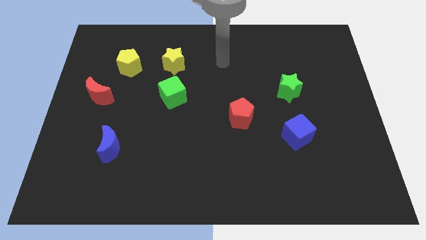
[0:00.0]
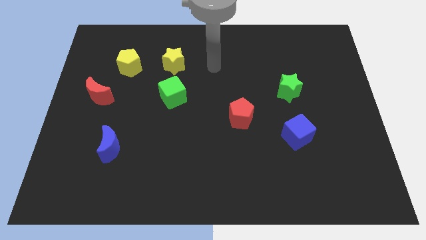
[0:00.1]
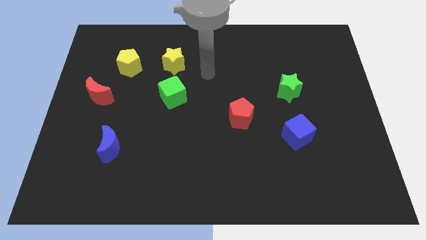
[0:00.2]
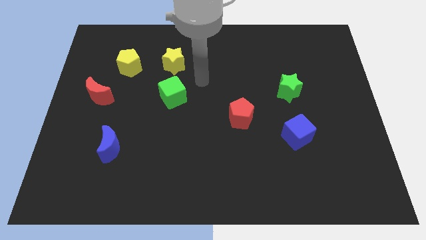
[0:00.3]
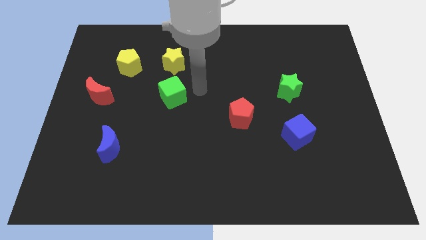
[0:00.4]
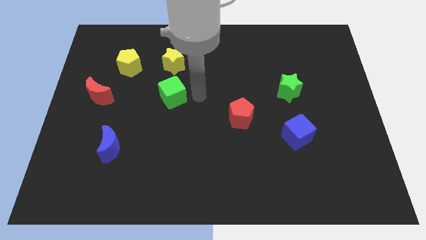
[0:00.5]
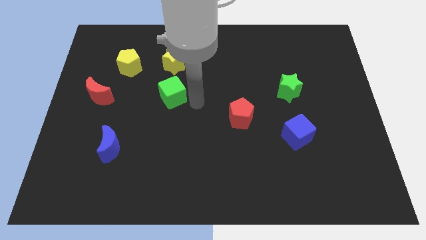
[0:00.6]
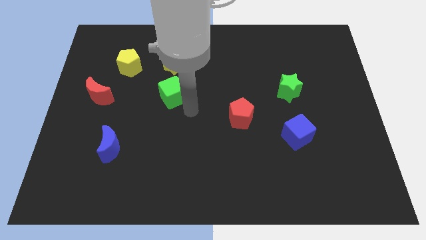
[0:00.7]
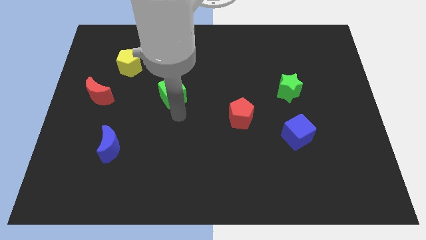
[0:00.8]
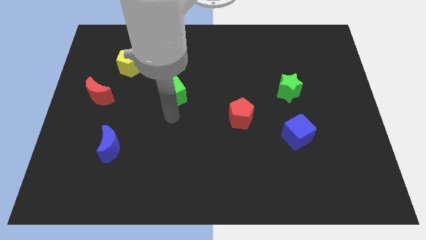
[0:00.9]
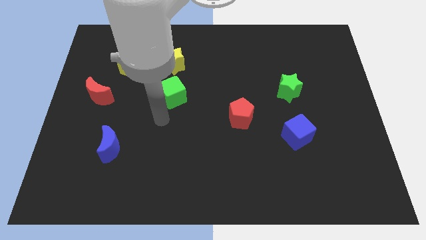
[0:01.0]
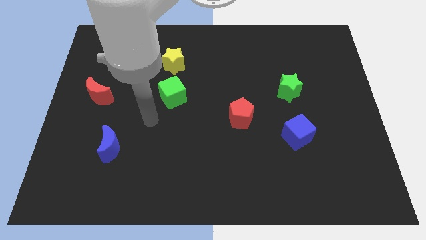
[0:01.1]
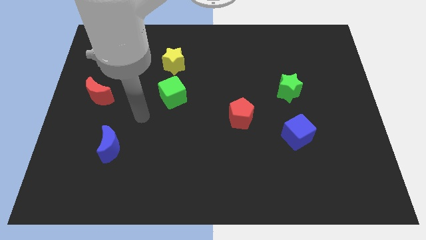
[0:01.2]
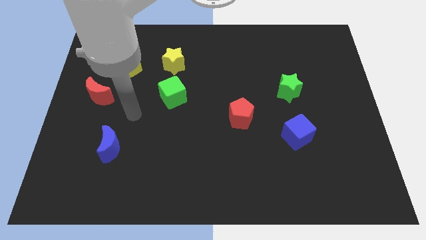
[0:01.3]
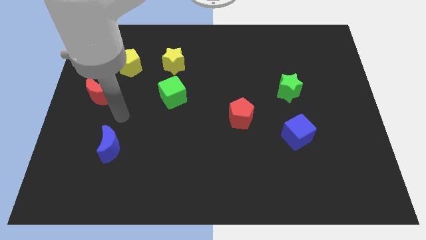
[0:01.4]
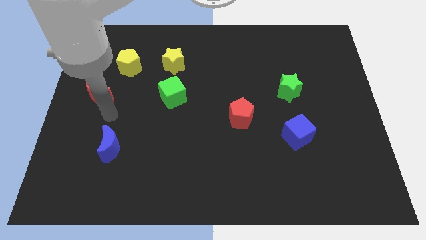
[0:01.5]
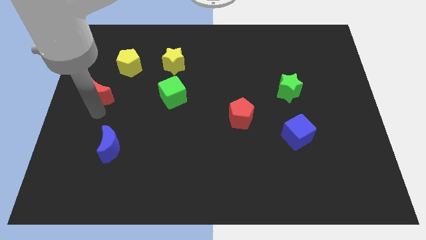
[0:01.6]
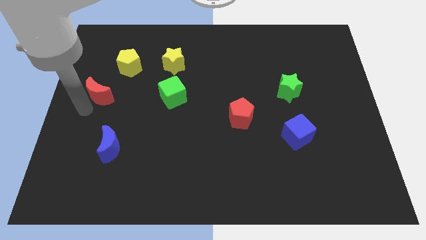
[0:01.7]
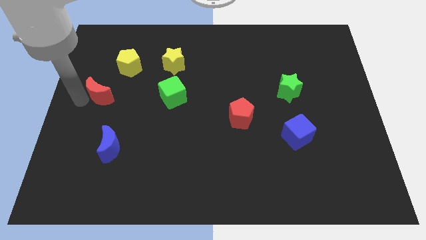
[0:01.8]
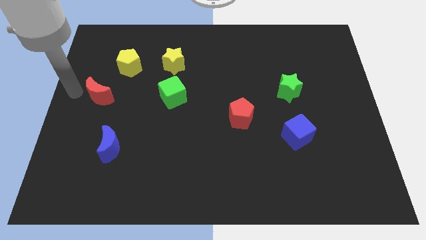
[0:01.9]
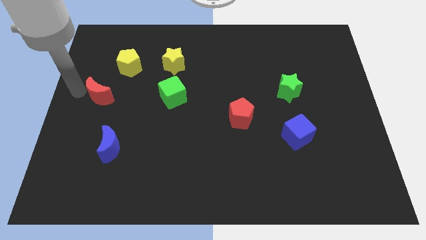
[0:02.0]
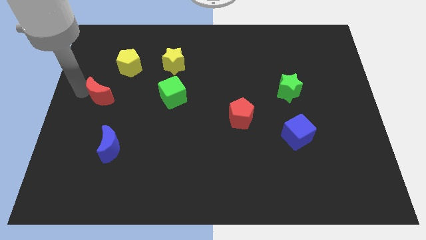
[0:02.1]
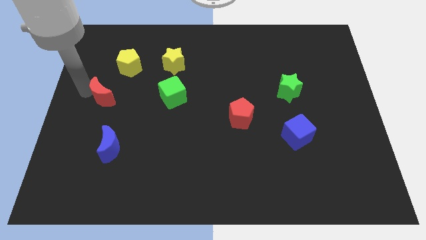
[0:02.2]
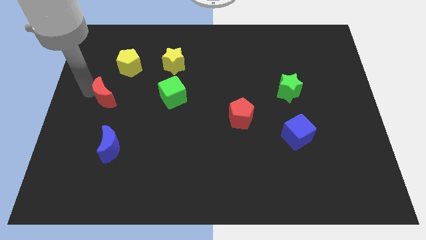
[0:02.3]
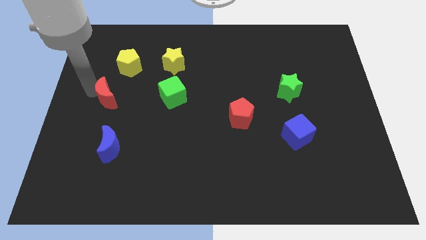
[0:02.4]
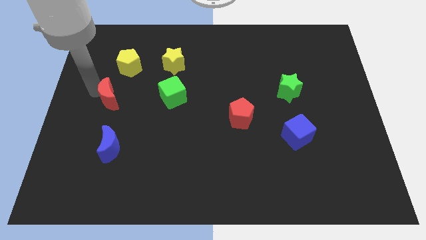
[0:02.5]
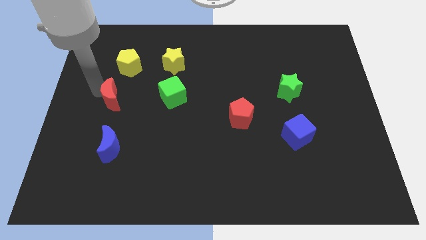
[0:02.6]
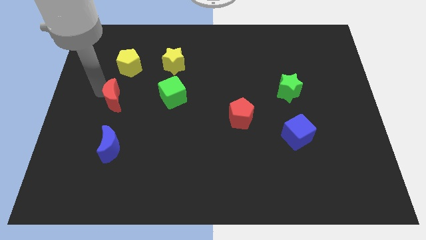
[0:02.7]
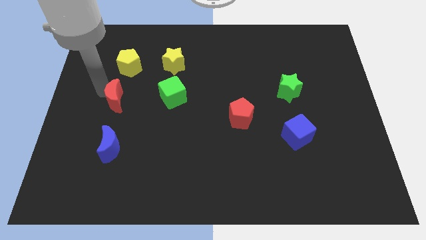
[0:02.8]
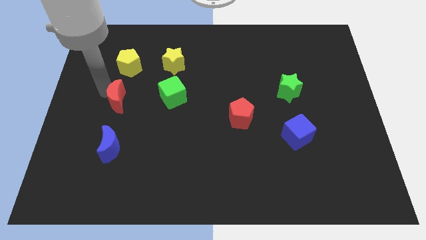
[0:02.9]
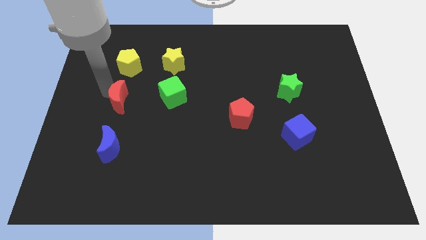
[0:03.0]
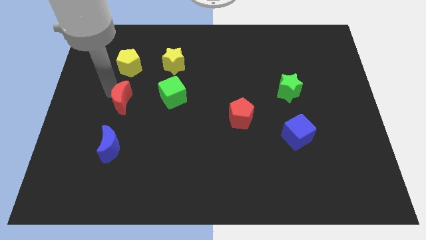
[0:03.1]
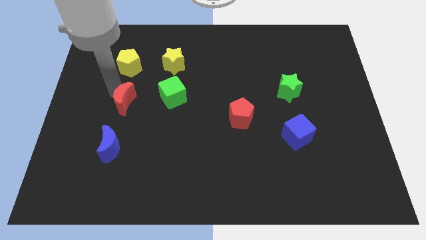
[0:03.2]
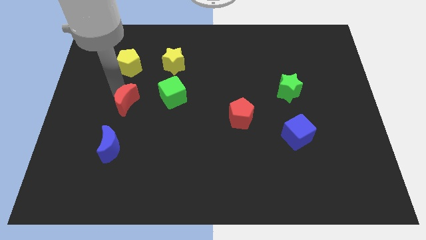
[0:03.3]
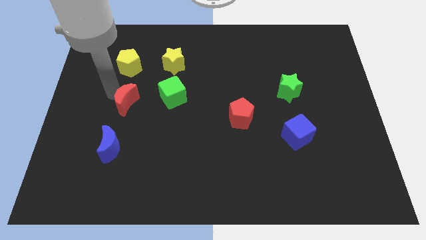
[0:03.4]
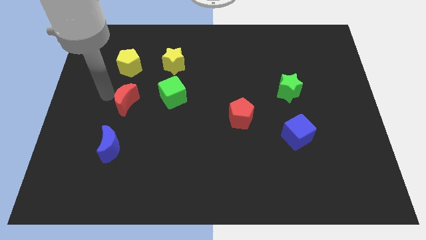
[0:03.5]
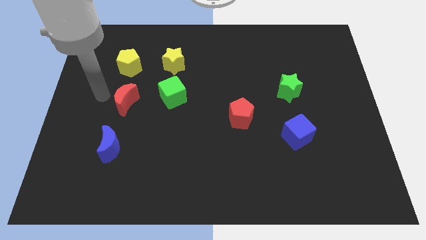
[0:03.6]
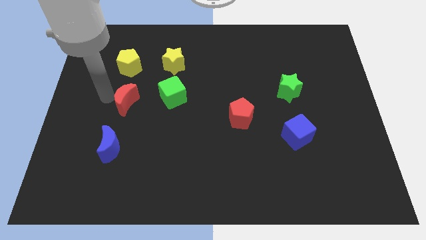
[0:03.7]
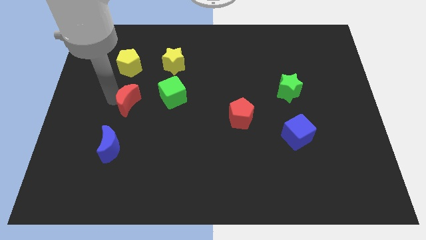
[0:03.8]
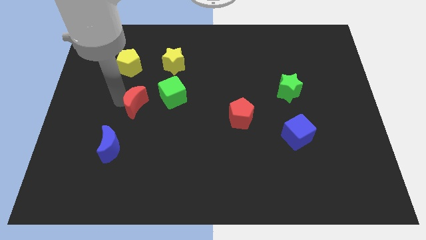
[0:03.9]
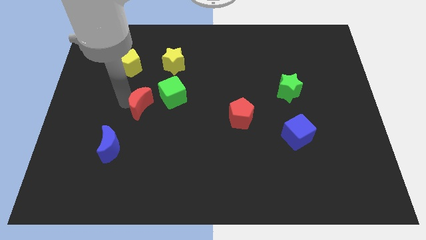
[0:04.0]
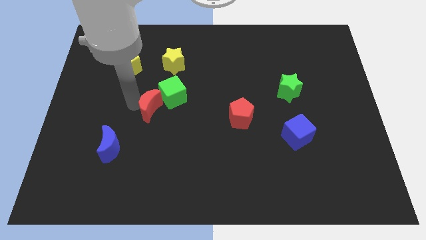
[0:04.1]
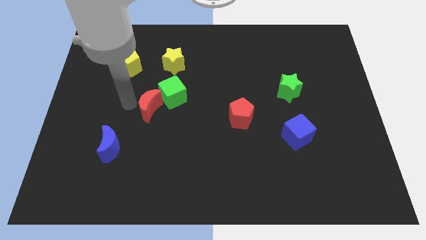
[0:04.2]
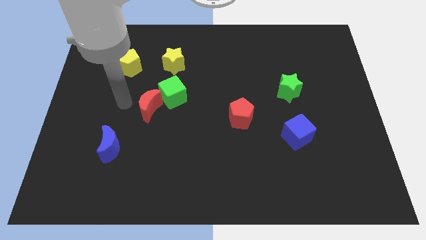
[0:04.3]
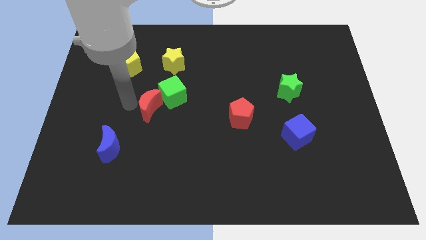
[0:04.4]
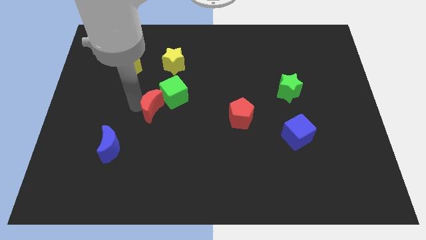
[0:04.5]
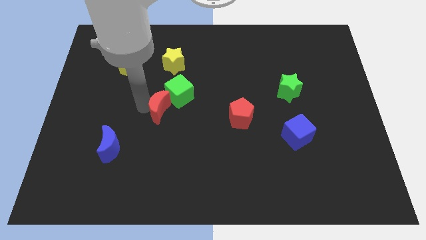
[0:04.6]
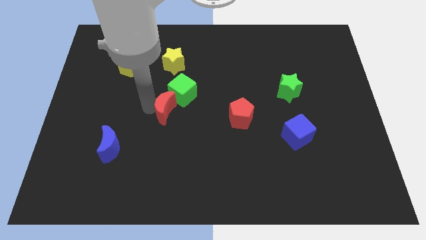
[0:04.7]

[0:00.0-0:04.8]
push the red moon to the center of the board

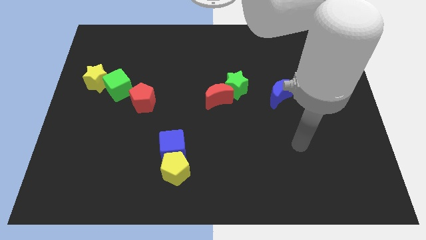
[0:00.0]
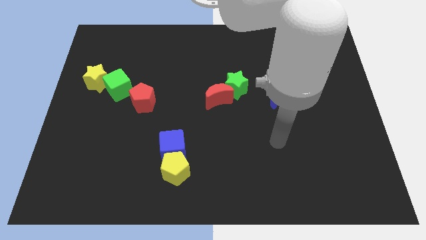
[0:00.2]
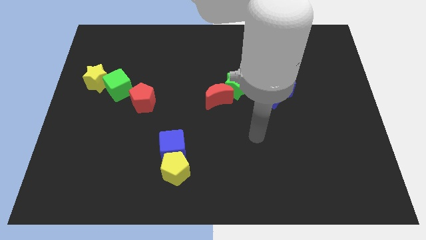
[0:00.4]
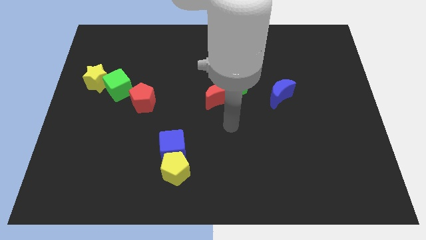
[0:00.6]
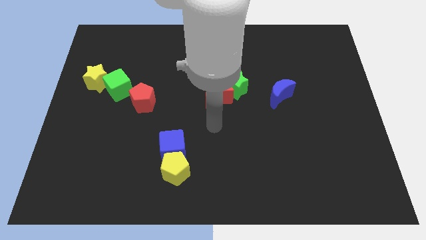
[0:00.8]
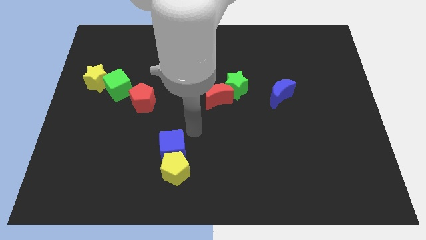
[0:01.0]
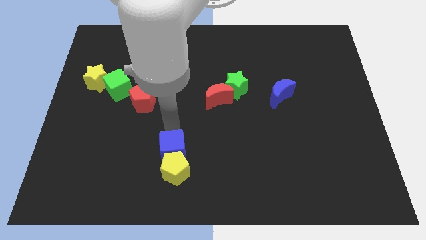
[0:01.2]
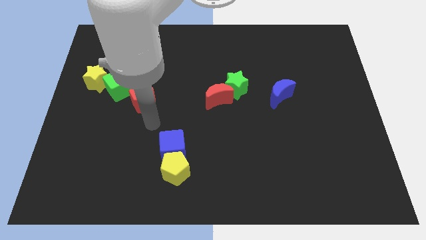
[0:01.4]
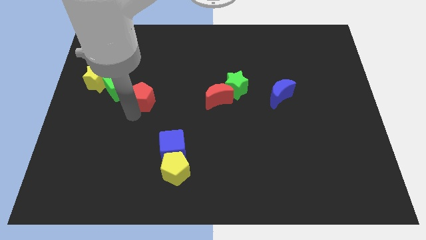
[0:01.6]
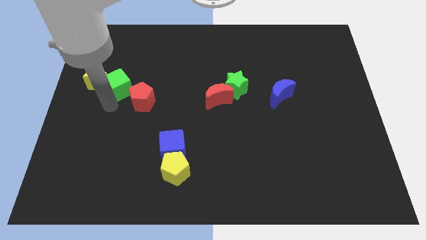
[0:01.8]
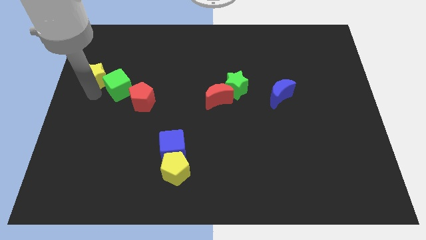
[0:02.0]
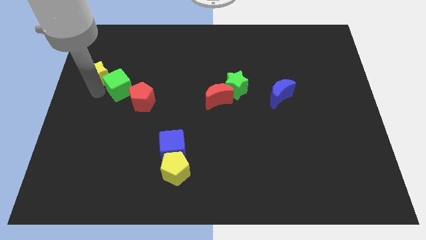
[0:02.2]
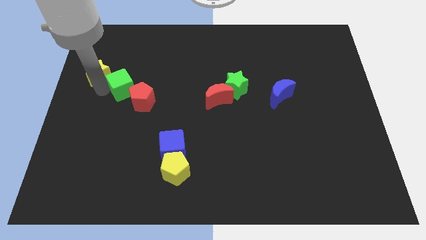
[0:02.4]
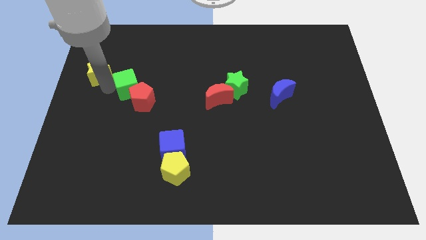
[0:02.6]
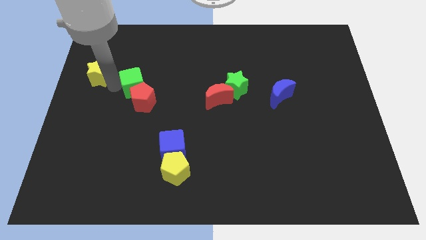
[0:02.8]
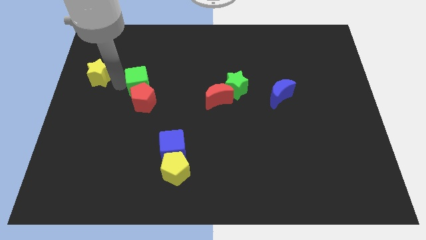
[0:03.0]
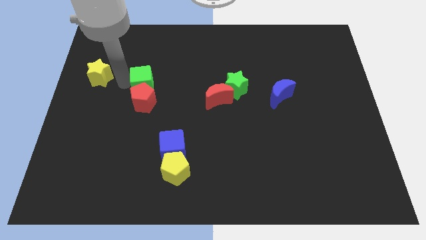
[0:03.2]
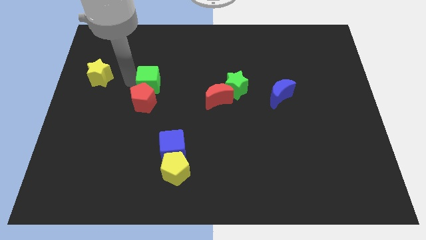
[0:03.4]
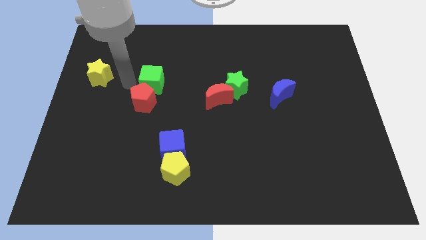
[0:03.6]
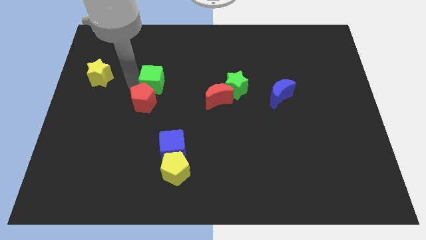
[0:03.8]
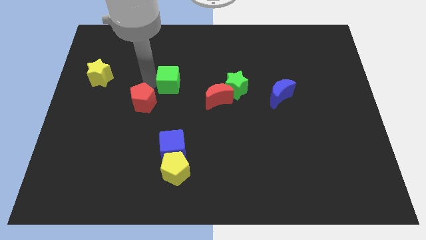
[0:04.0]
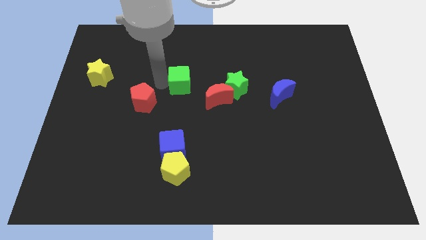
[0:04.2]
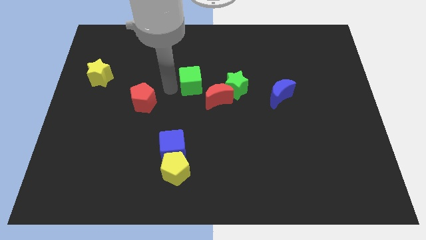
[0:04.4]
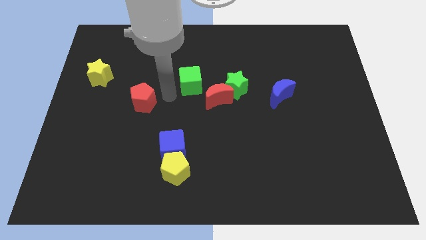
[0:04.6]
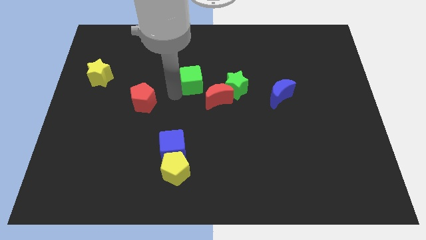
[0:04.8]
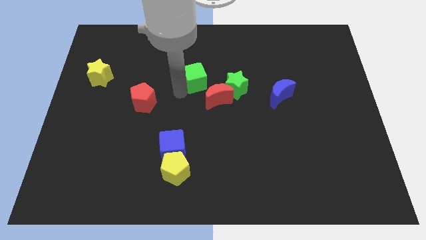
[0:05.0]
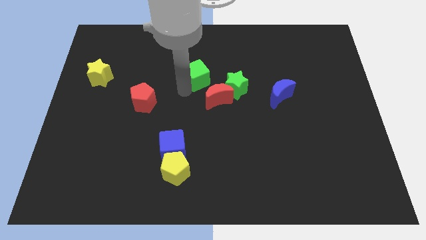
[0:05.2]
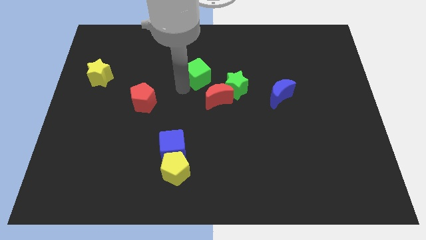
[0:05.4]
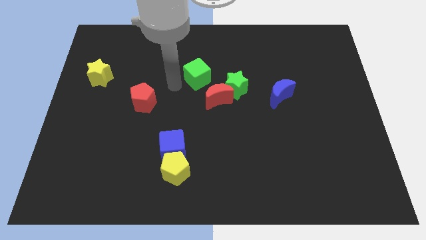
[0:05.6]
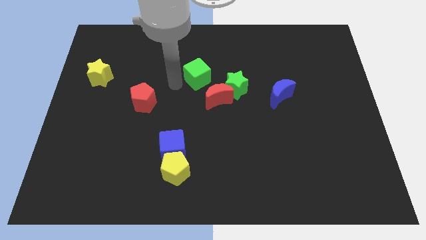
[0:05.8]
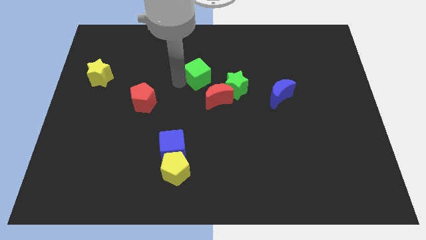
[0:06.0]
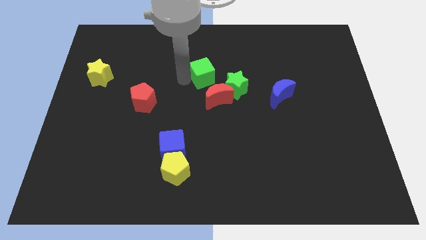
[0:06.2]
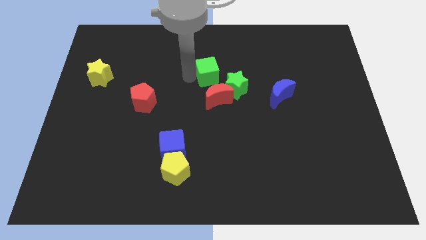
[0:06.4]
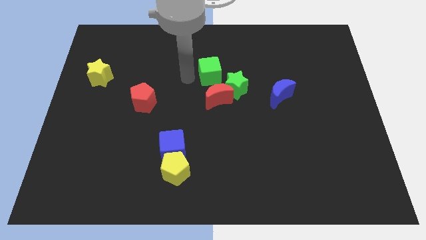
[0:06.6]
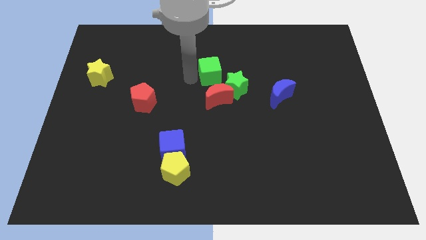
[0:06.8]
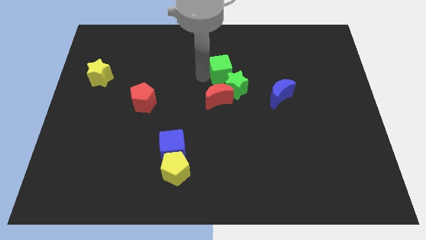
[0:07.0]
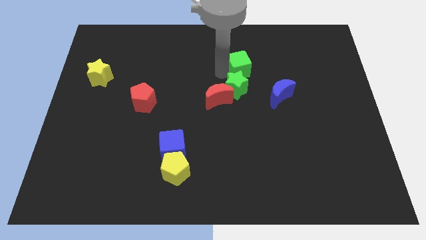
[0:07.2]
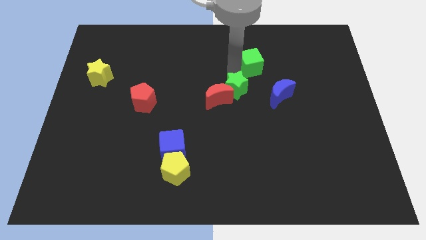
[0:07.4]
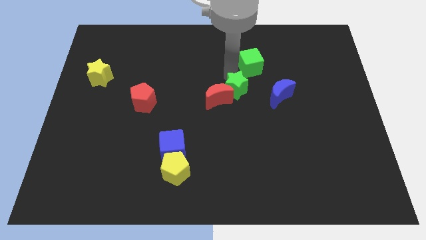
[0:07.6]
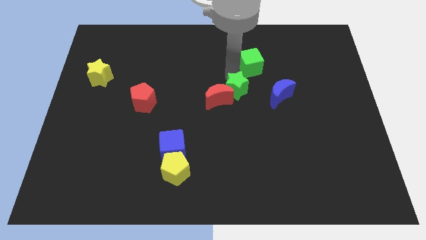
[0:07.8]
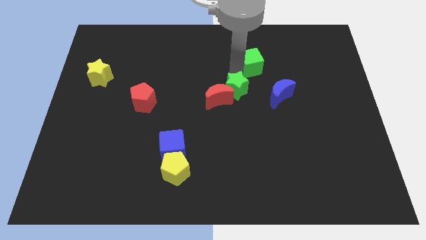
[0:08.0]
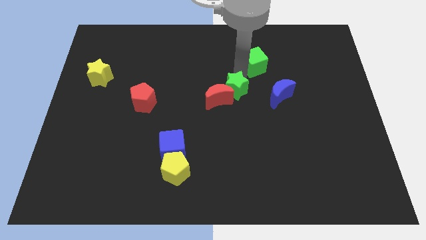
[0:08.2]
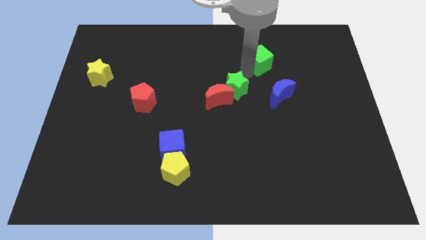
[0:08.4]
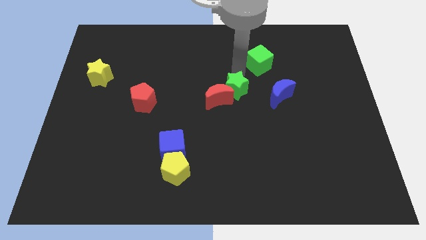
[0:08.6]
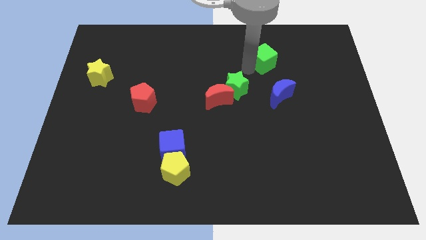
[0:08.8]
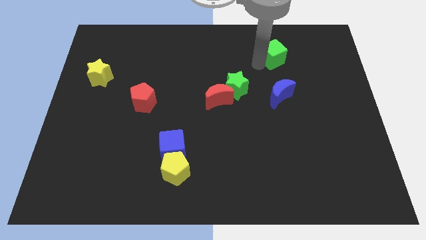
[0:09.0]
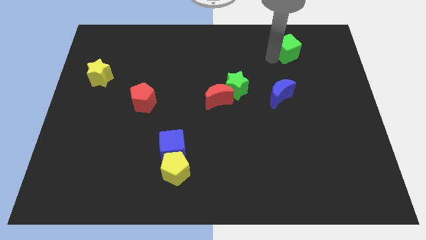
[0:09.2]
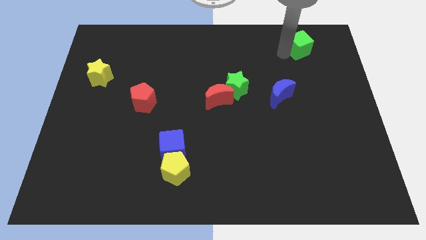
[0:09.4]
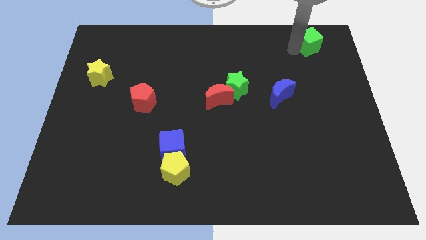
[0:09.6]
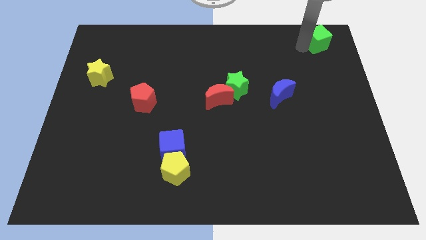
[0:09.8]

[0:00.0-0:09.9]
push the green cube to the upper right corner
